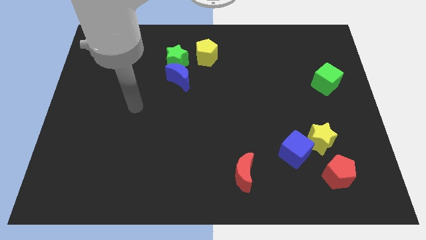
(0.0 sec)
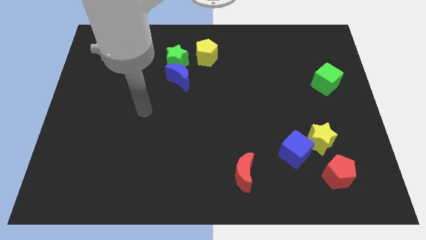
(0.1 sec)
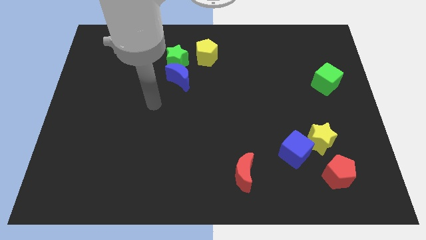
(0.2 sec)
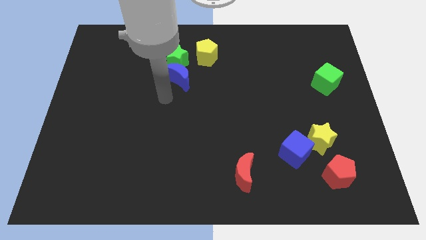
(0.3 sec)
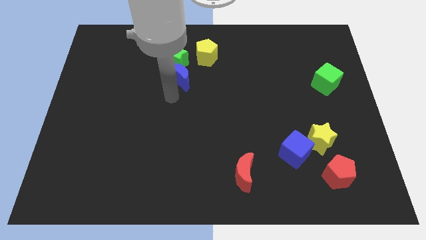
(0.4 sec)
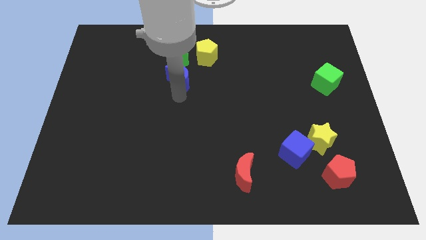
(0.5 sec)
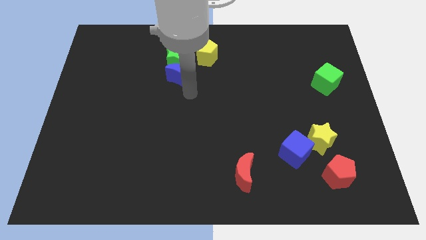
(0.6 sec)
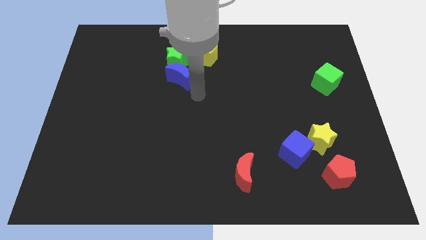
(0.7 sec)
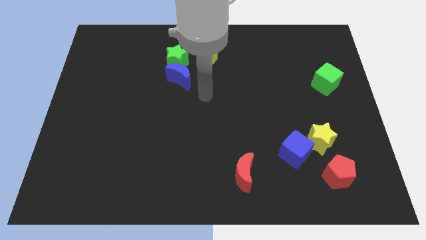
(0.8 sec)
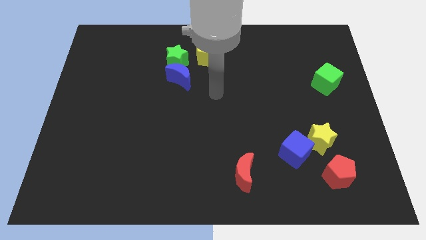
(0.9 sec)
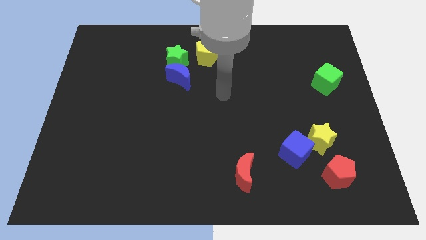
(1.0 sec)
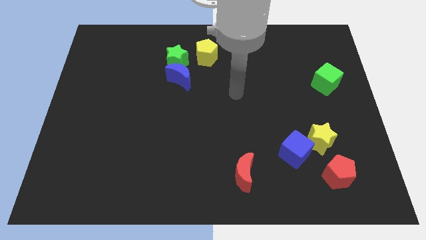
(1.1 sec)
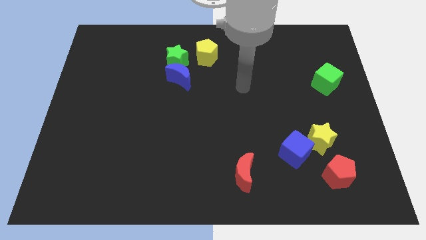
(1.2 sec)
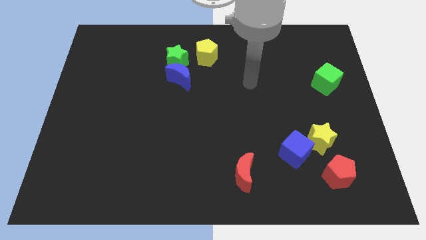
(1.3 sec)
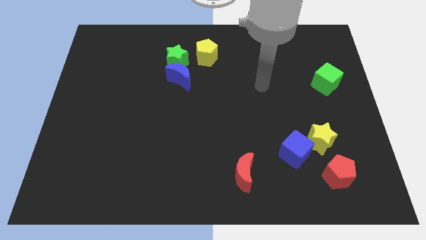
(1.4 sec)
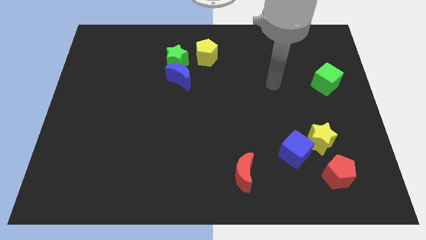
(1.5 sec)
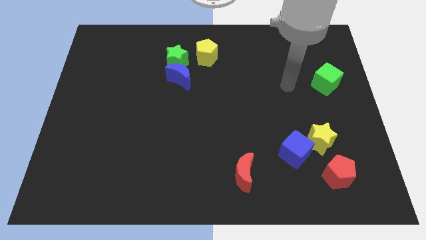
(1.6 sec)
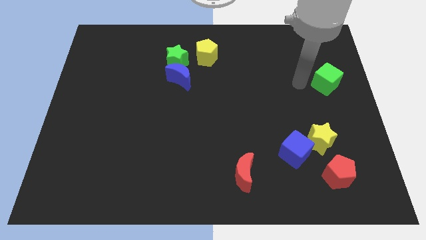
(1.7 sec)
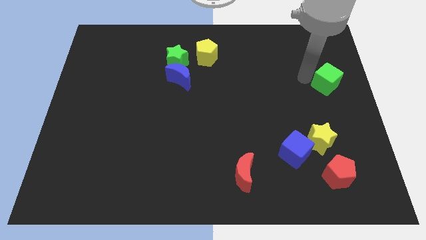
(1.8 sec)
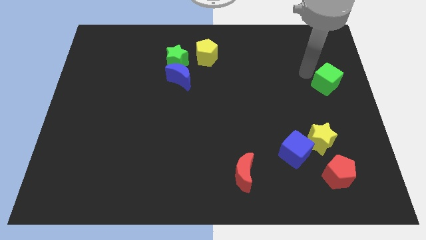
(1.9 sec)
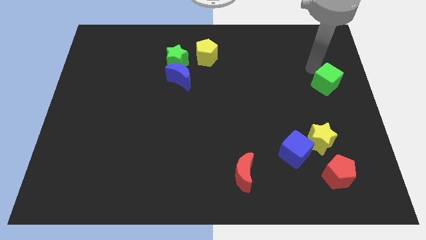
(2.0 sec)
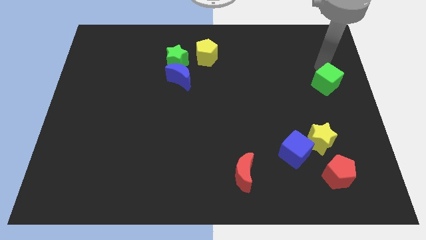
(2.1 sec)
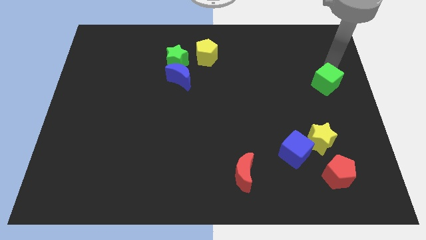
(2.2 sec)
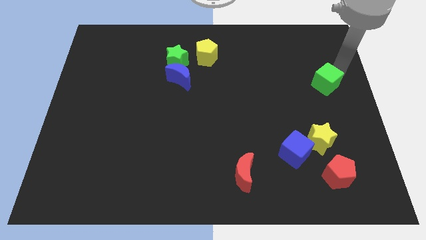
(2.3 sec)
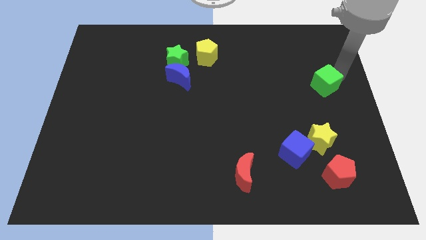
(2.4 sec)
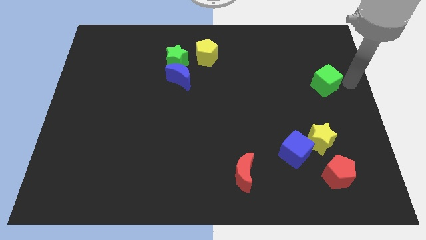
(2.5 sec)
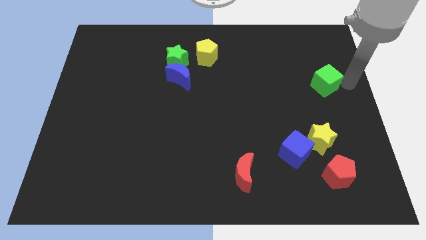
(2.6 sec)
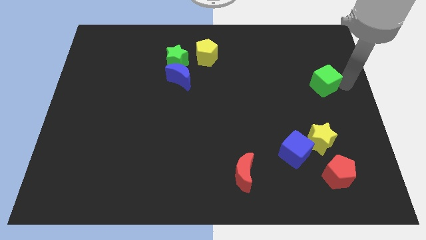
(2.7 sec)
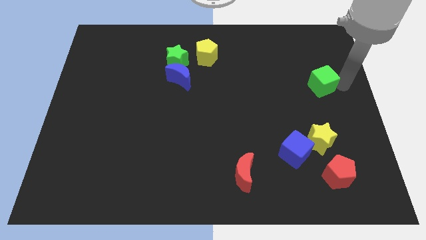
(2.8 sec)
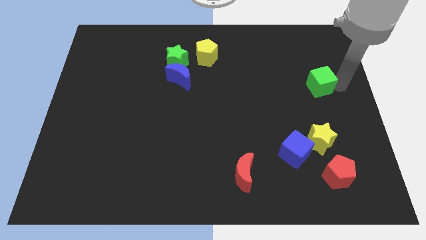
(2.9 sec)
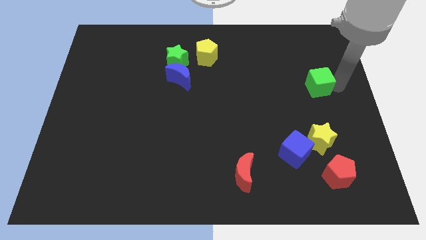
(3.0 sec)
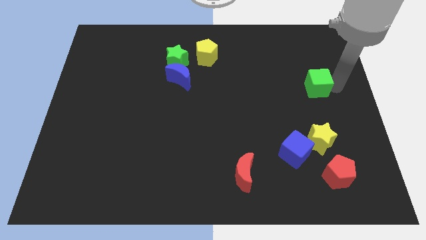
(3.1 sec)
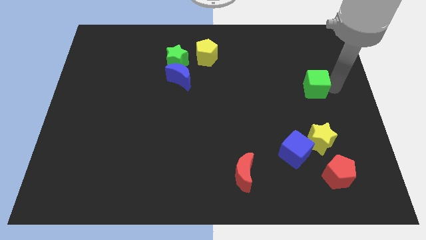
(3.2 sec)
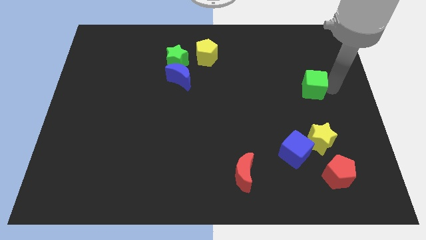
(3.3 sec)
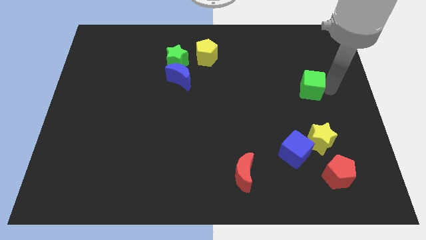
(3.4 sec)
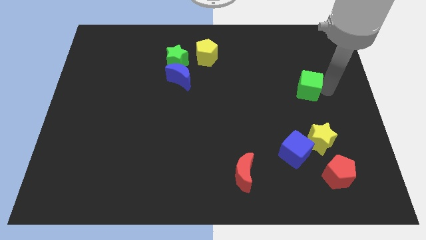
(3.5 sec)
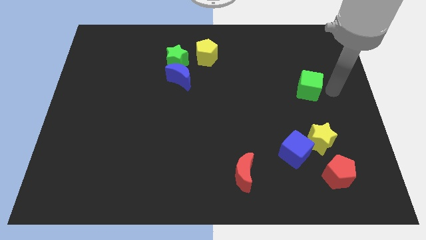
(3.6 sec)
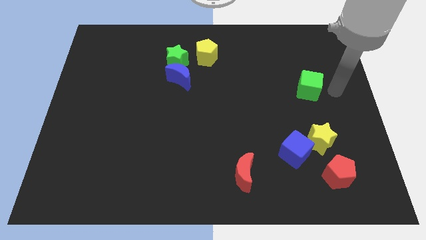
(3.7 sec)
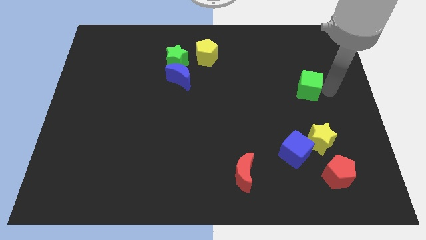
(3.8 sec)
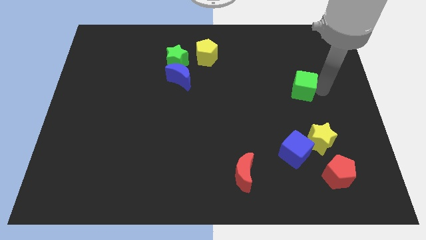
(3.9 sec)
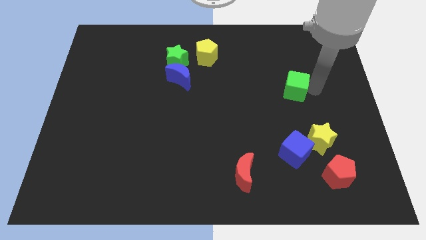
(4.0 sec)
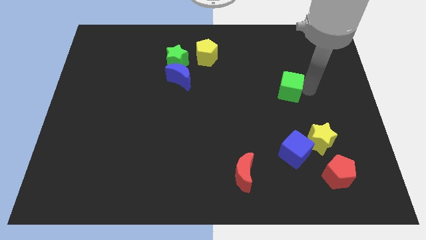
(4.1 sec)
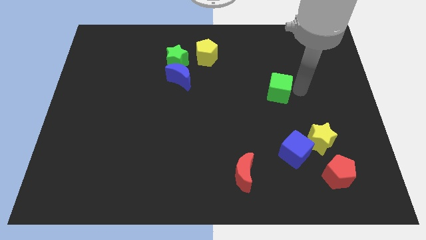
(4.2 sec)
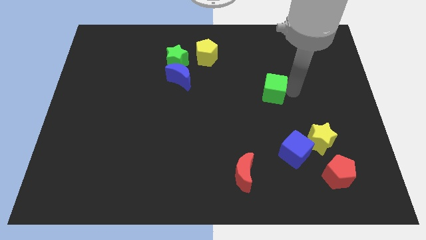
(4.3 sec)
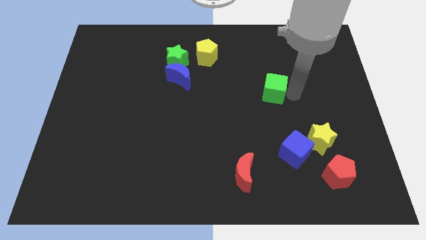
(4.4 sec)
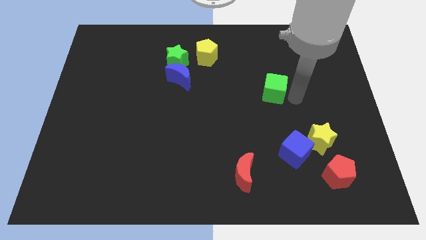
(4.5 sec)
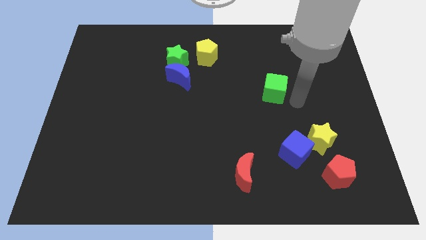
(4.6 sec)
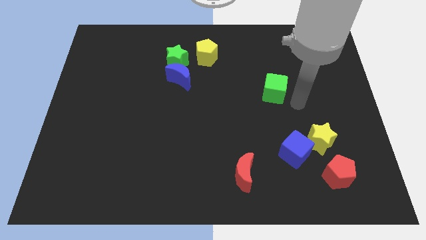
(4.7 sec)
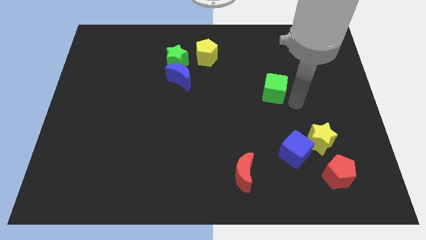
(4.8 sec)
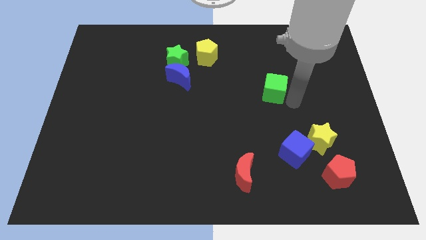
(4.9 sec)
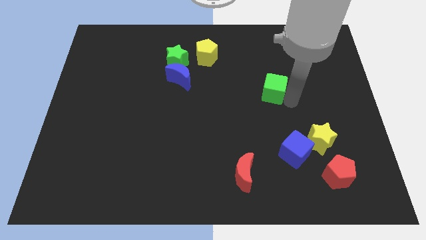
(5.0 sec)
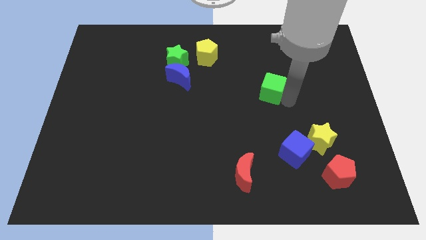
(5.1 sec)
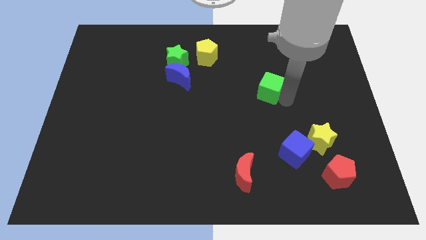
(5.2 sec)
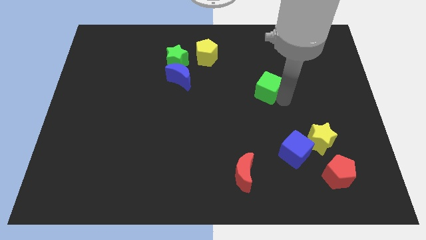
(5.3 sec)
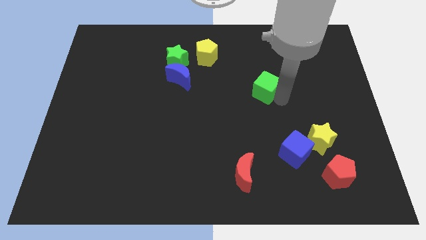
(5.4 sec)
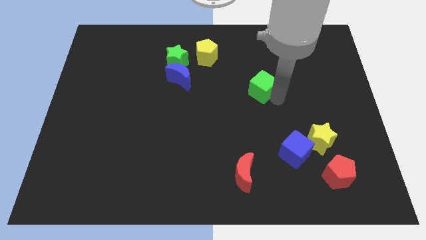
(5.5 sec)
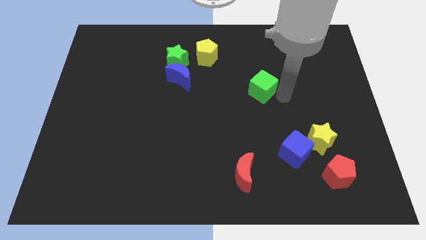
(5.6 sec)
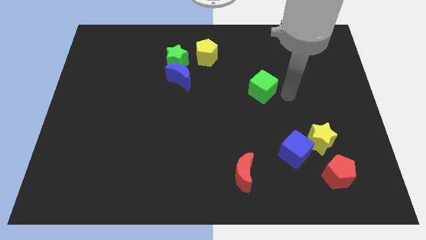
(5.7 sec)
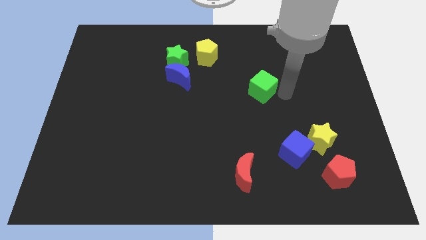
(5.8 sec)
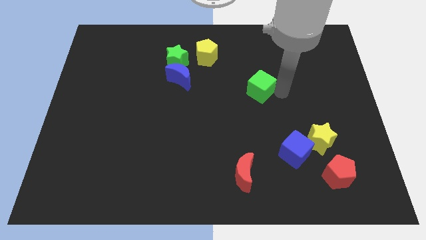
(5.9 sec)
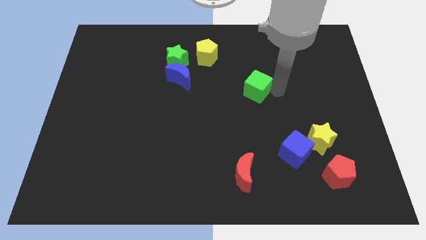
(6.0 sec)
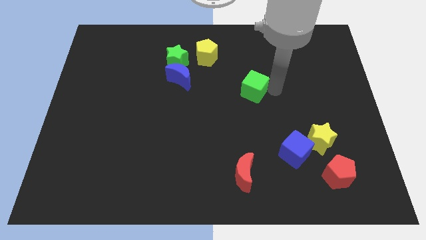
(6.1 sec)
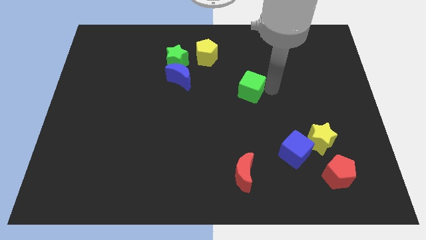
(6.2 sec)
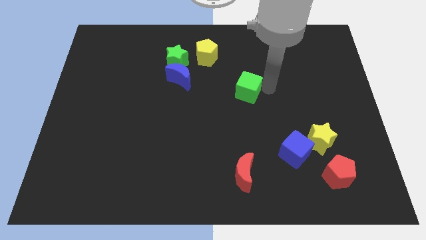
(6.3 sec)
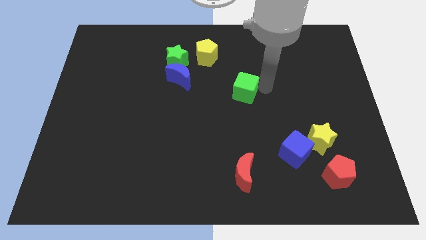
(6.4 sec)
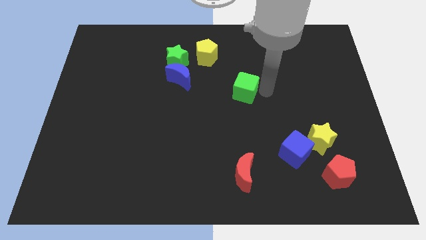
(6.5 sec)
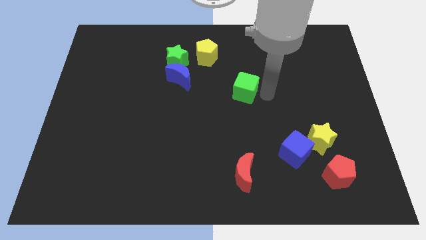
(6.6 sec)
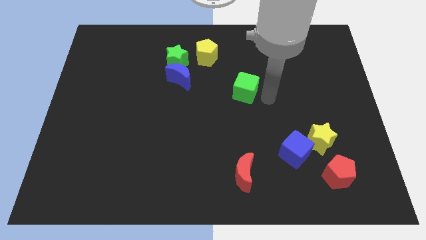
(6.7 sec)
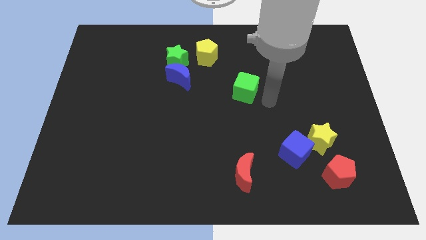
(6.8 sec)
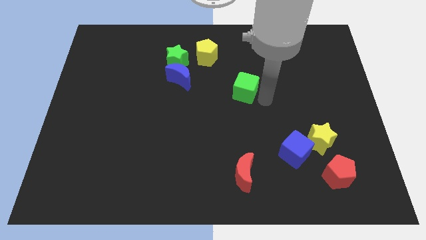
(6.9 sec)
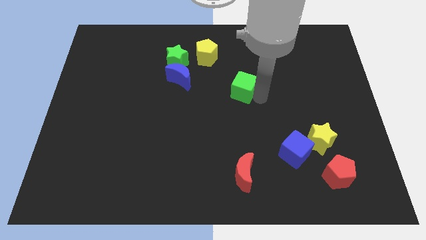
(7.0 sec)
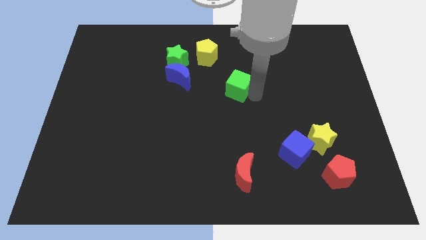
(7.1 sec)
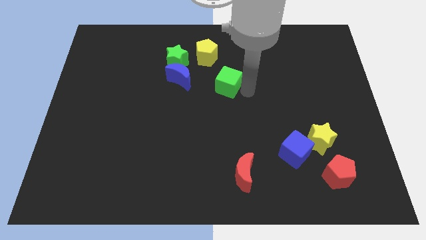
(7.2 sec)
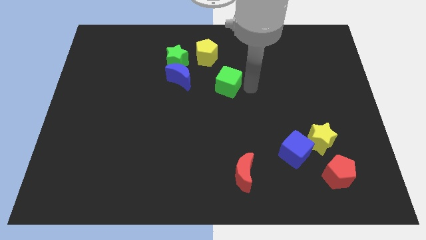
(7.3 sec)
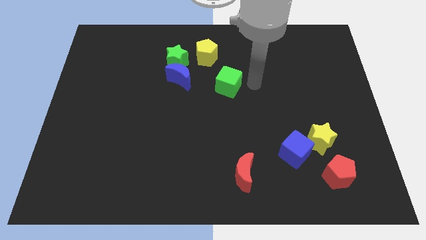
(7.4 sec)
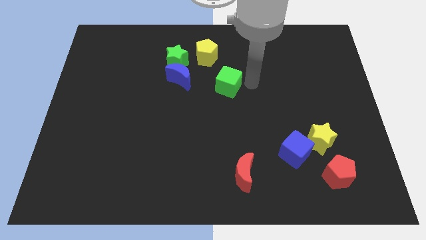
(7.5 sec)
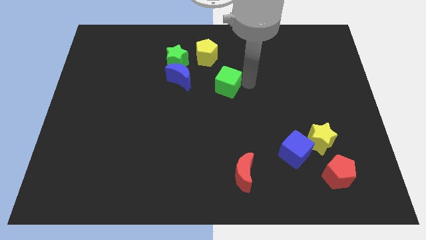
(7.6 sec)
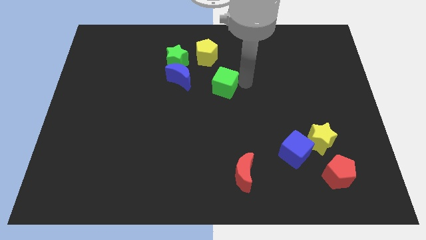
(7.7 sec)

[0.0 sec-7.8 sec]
slide the green cube to the bottom of the yellow pentagon
